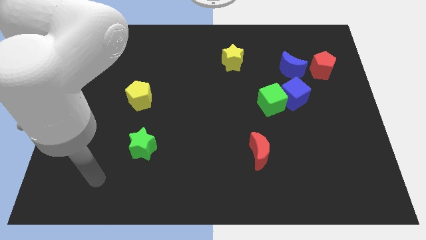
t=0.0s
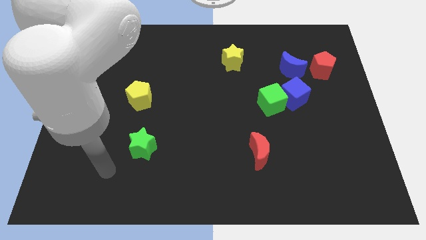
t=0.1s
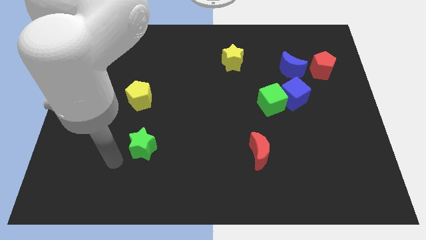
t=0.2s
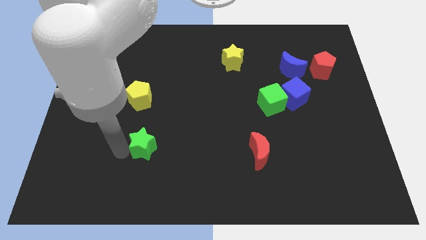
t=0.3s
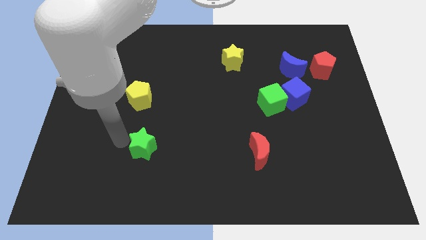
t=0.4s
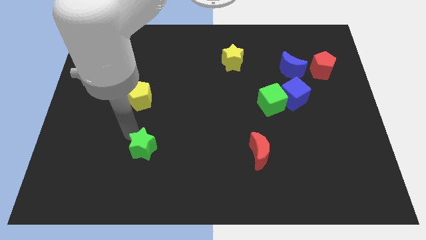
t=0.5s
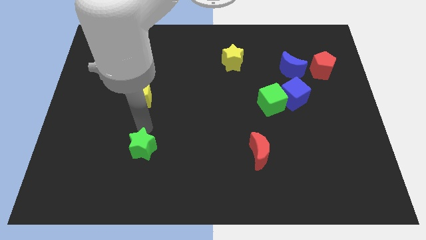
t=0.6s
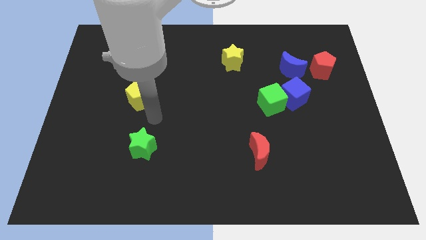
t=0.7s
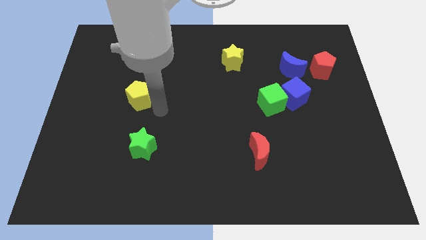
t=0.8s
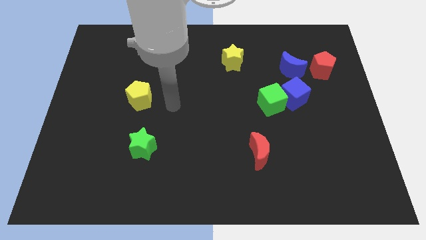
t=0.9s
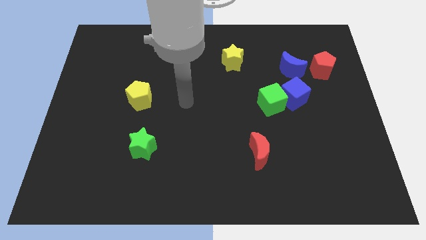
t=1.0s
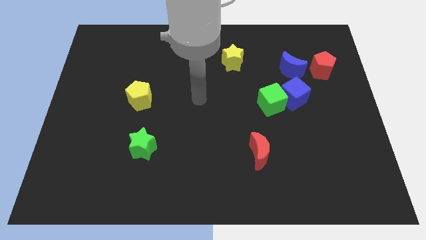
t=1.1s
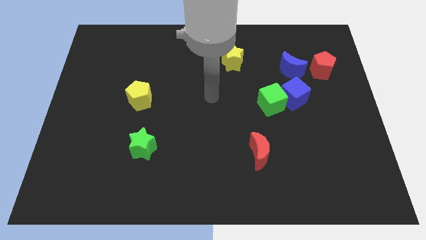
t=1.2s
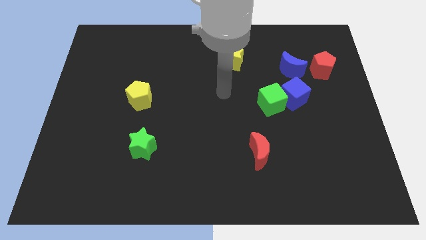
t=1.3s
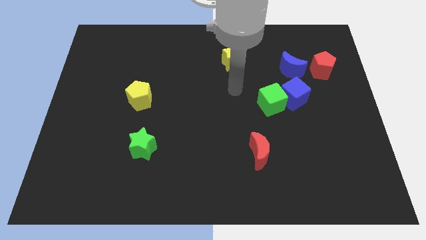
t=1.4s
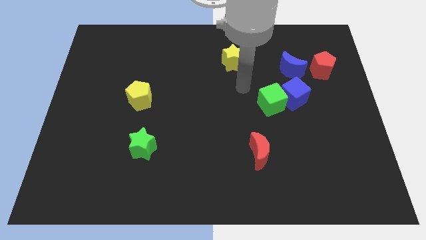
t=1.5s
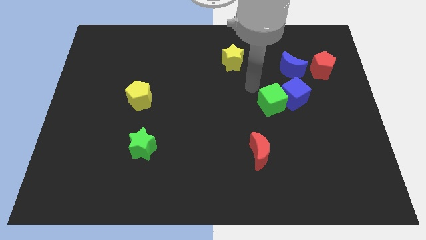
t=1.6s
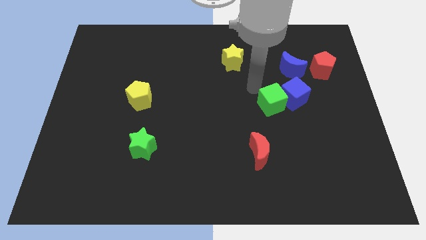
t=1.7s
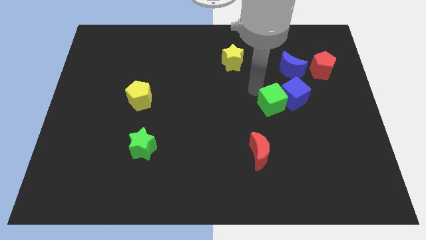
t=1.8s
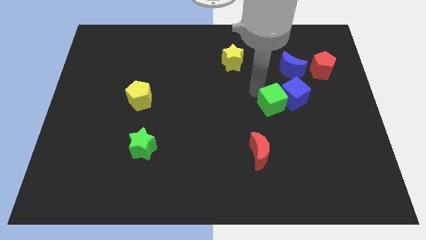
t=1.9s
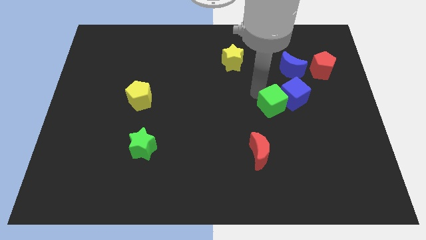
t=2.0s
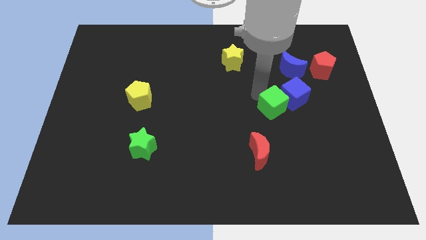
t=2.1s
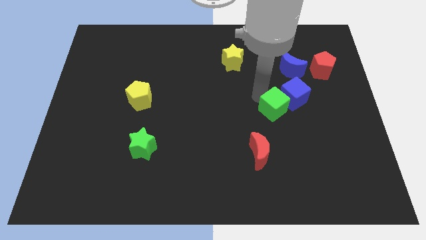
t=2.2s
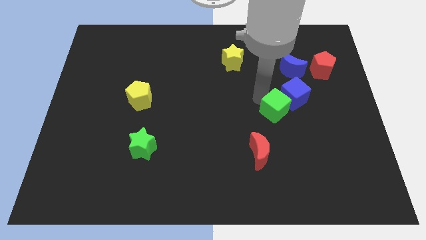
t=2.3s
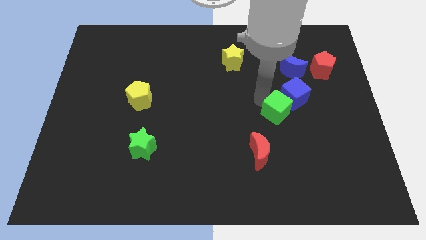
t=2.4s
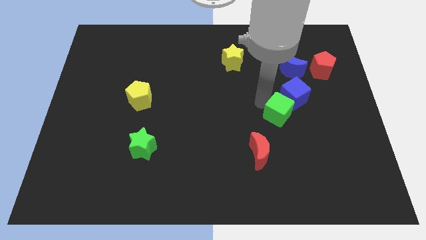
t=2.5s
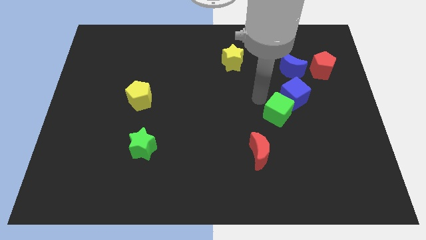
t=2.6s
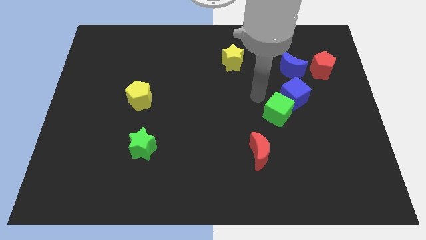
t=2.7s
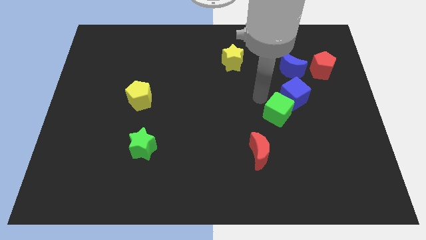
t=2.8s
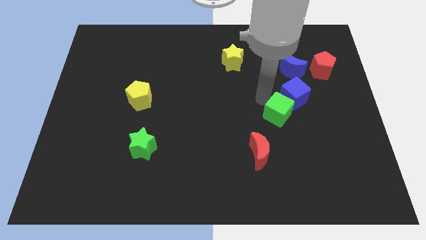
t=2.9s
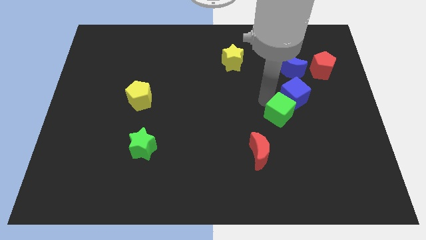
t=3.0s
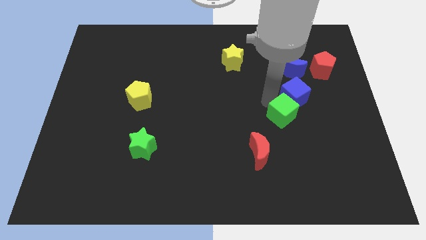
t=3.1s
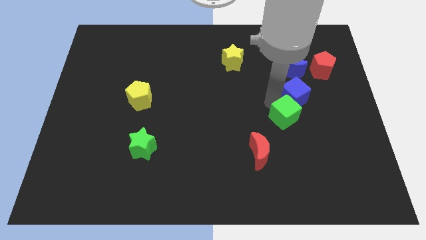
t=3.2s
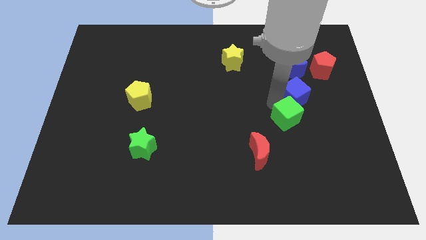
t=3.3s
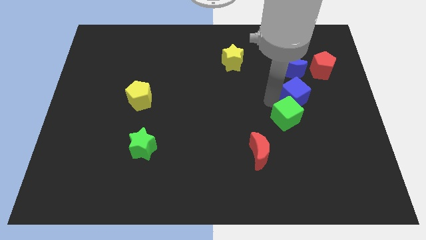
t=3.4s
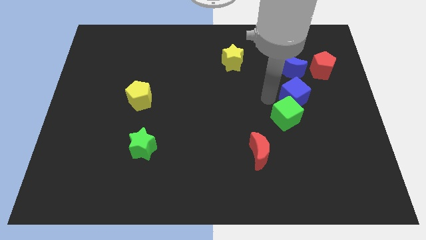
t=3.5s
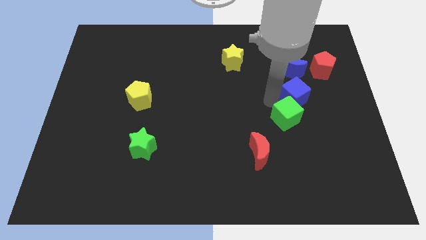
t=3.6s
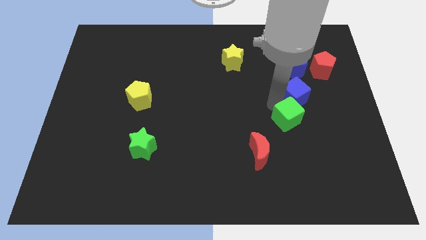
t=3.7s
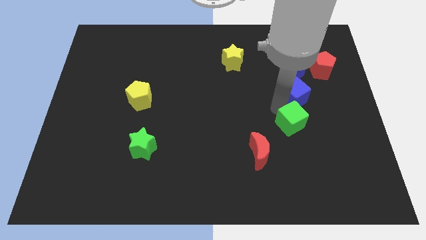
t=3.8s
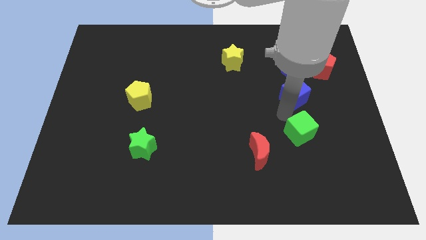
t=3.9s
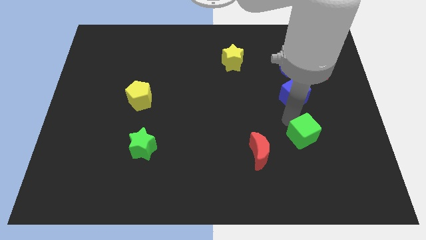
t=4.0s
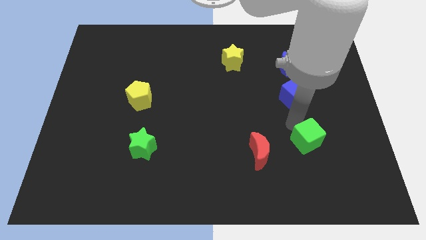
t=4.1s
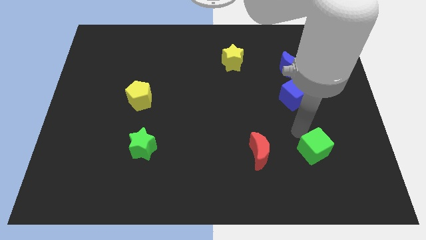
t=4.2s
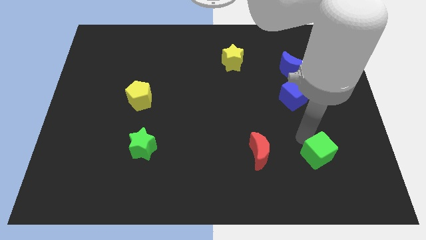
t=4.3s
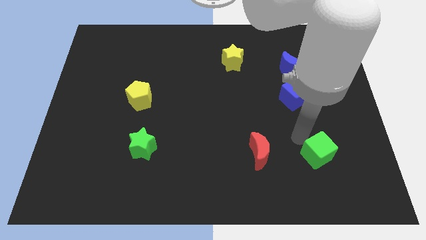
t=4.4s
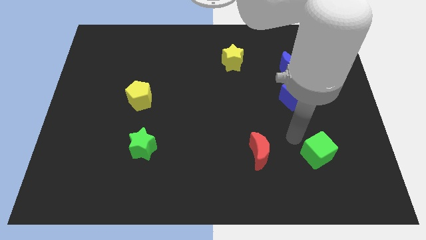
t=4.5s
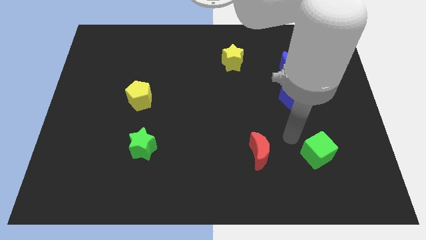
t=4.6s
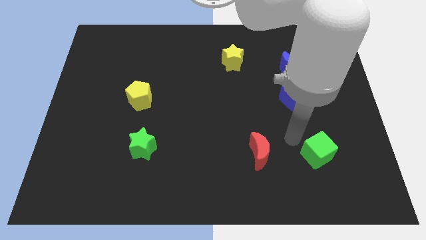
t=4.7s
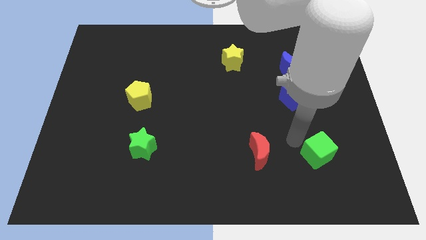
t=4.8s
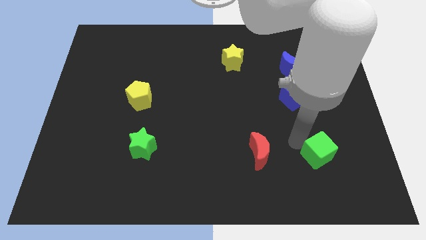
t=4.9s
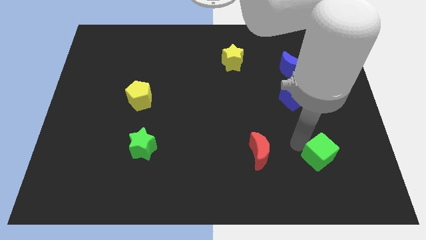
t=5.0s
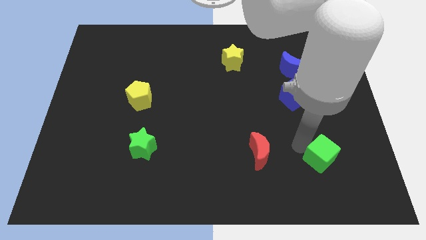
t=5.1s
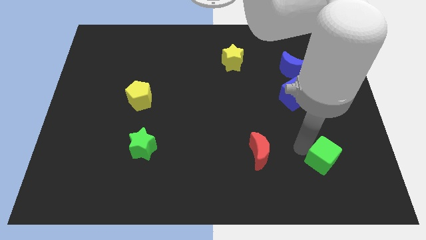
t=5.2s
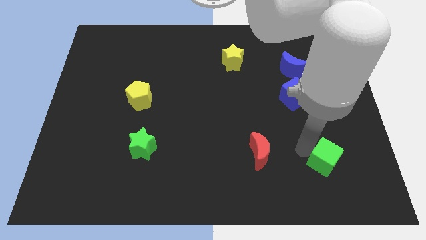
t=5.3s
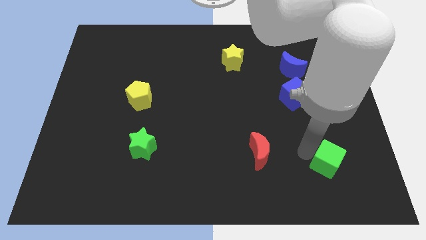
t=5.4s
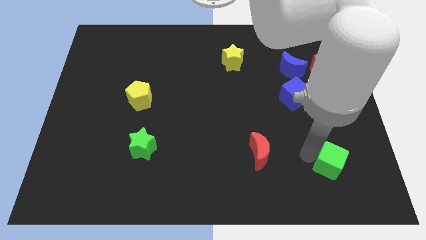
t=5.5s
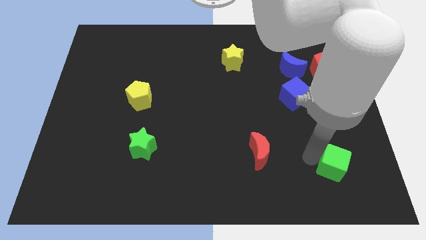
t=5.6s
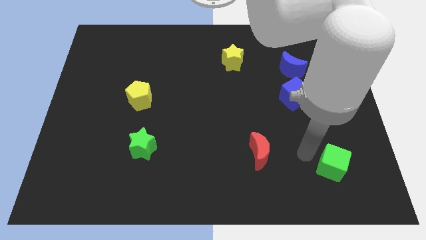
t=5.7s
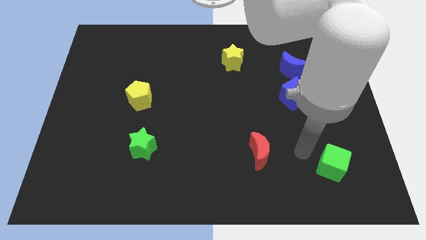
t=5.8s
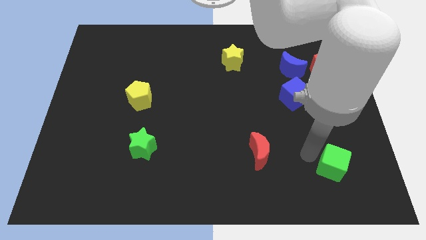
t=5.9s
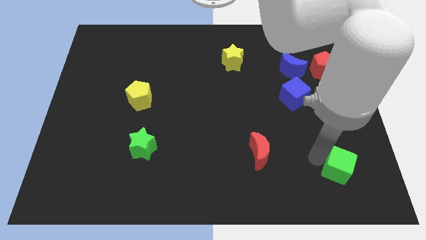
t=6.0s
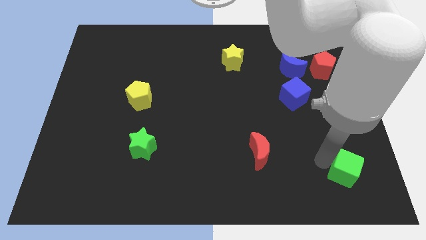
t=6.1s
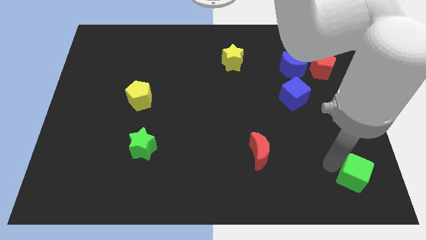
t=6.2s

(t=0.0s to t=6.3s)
move the green cube to the bottom right
